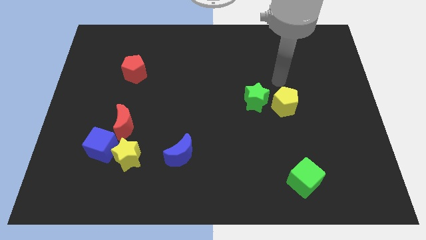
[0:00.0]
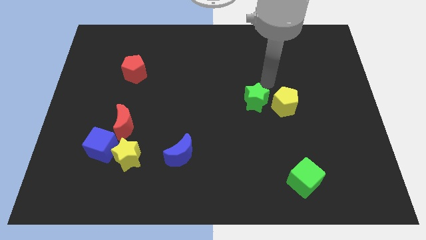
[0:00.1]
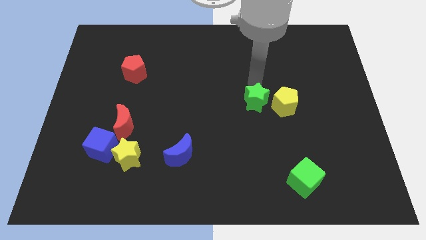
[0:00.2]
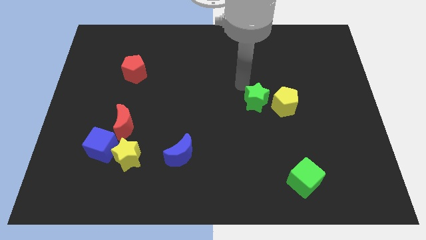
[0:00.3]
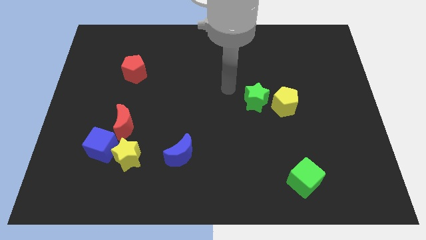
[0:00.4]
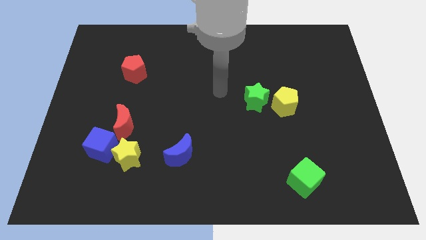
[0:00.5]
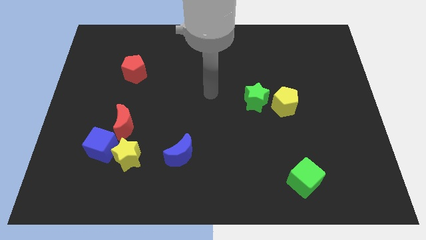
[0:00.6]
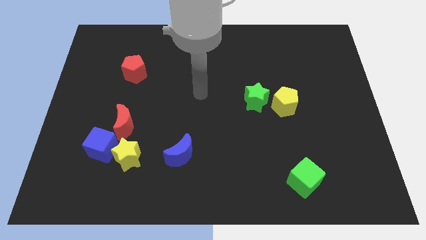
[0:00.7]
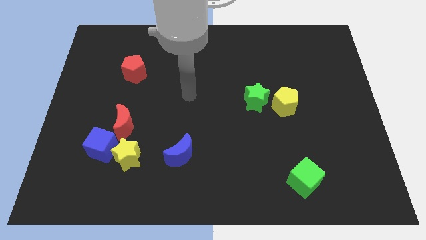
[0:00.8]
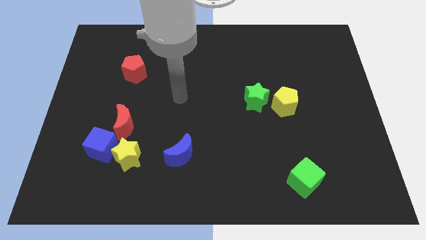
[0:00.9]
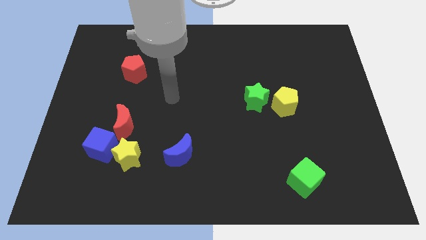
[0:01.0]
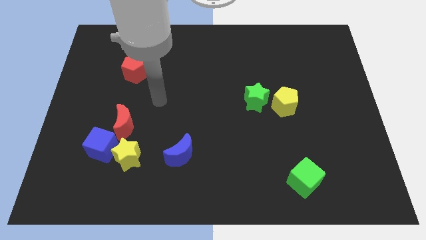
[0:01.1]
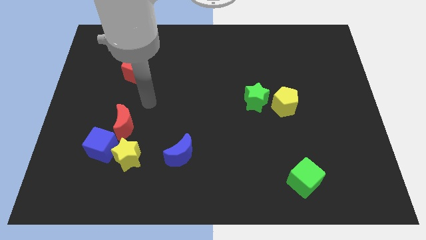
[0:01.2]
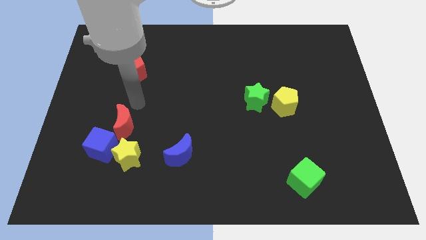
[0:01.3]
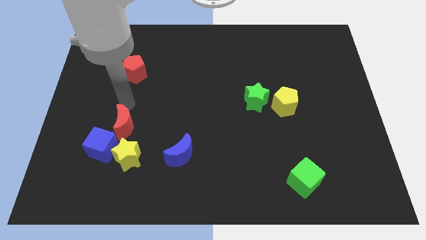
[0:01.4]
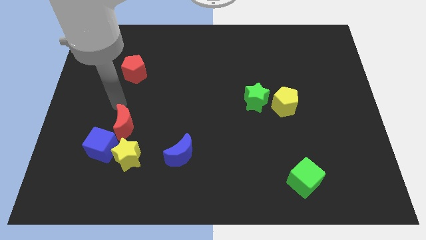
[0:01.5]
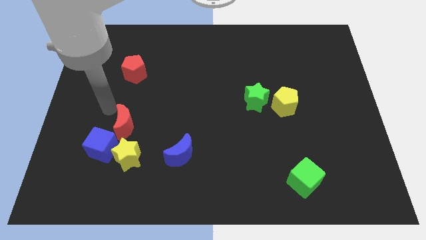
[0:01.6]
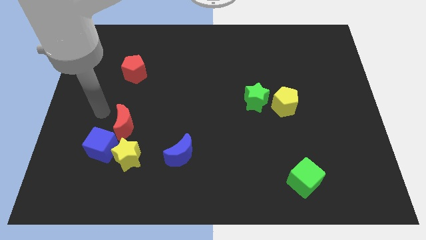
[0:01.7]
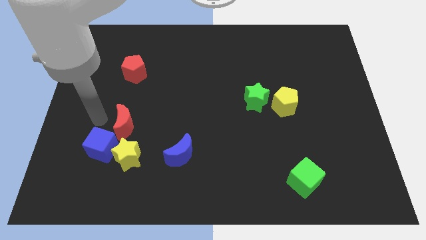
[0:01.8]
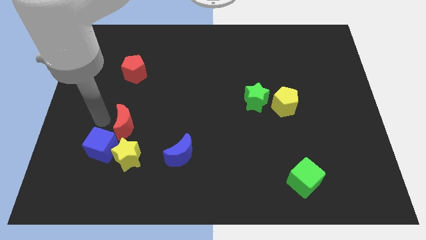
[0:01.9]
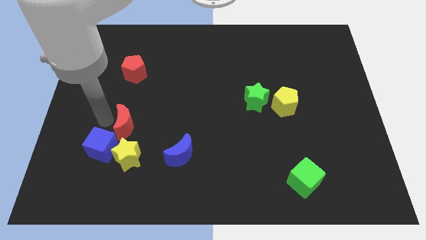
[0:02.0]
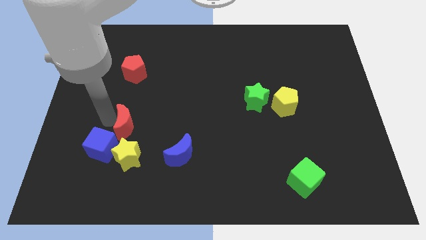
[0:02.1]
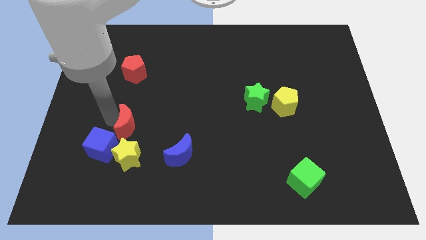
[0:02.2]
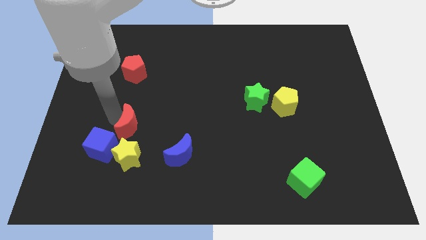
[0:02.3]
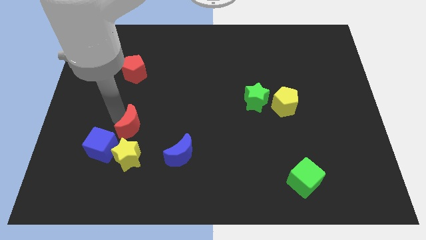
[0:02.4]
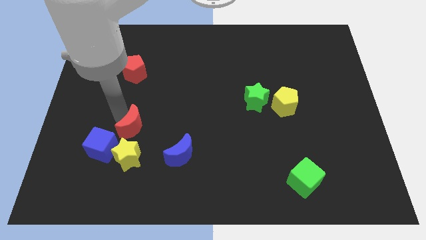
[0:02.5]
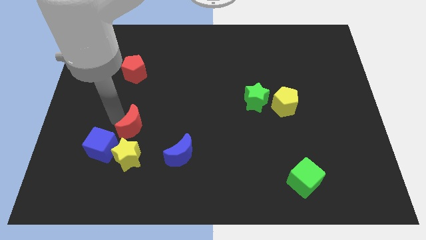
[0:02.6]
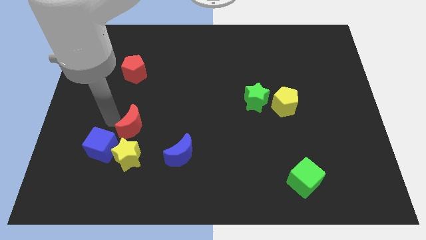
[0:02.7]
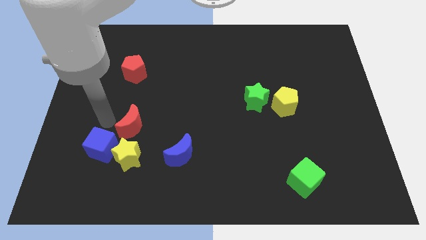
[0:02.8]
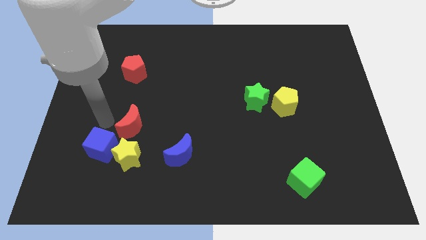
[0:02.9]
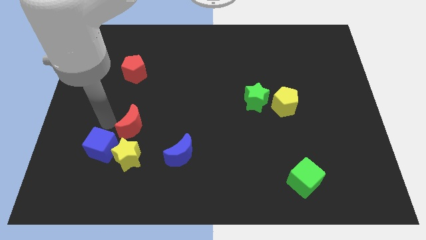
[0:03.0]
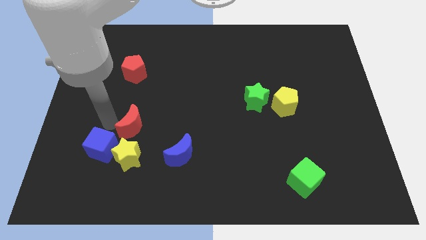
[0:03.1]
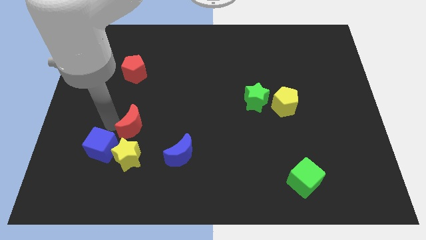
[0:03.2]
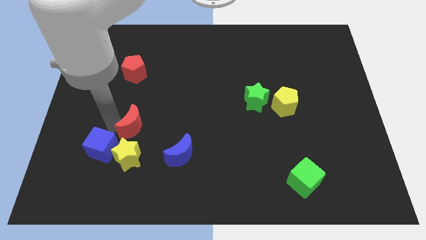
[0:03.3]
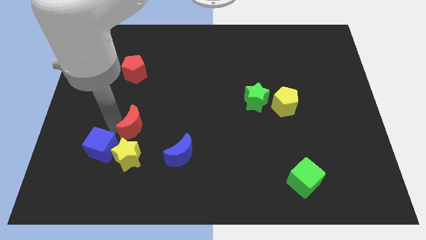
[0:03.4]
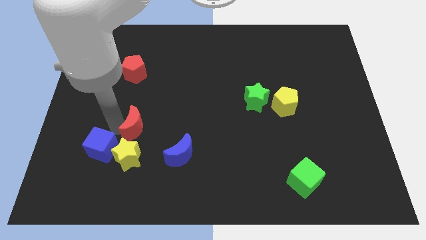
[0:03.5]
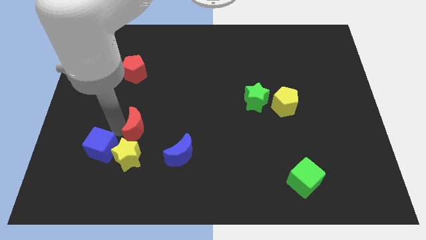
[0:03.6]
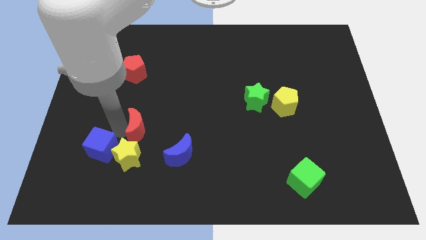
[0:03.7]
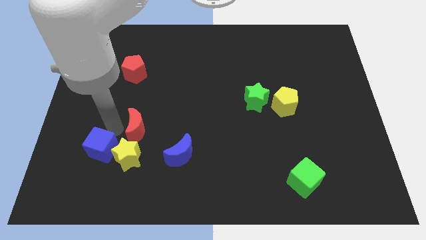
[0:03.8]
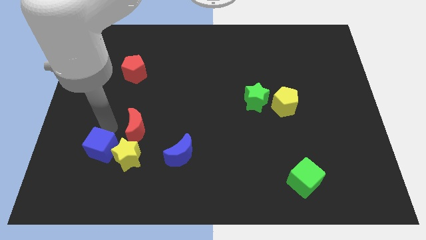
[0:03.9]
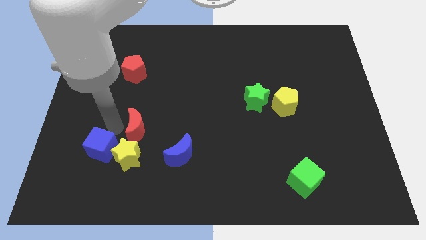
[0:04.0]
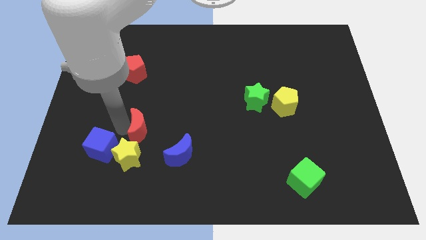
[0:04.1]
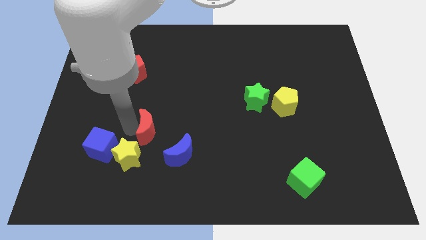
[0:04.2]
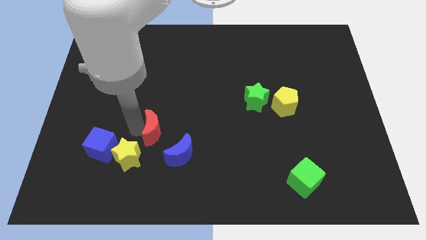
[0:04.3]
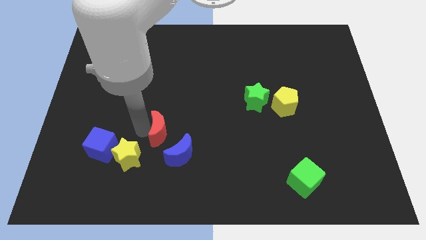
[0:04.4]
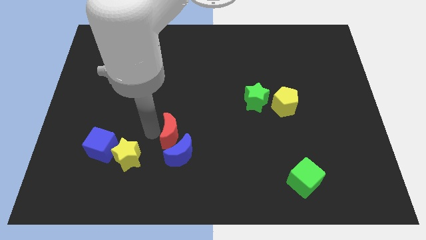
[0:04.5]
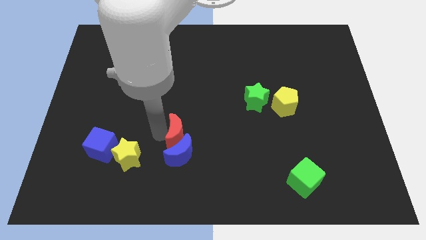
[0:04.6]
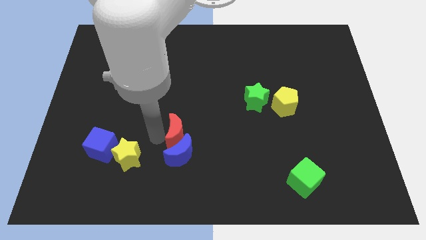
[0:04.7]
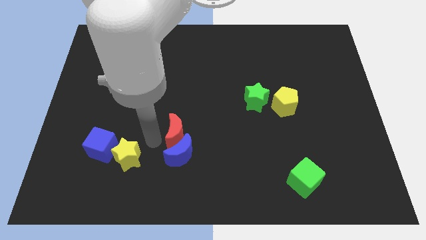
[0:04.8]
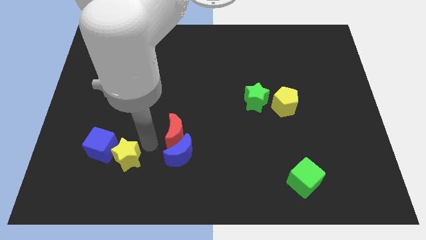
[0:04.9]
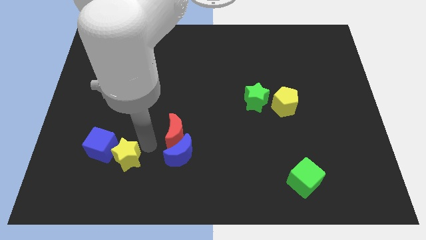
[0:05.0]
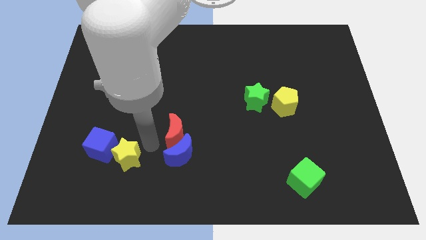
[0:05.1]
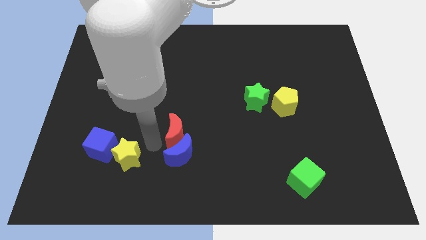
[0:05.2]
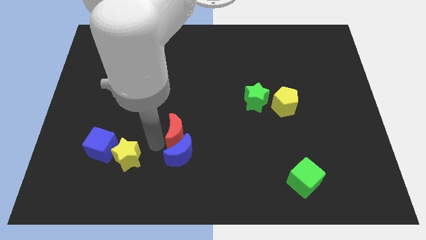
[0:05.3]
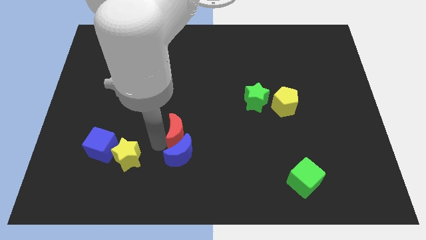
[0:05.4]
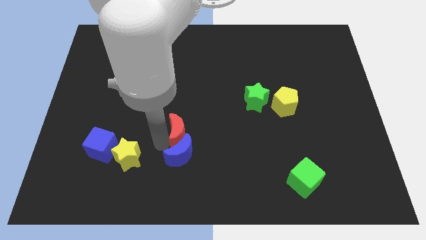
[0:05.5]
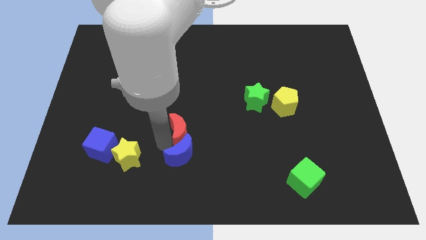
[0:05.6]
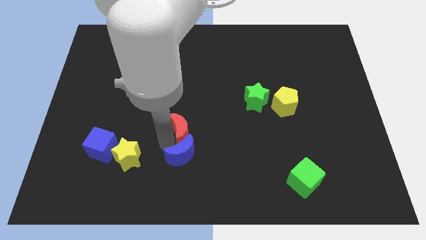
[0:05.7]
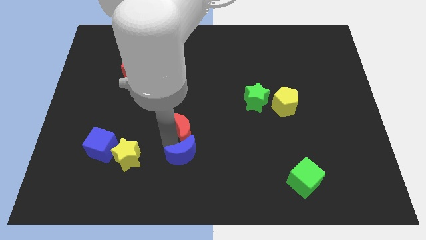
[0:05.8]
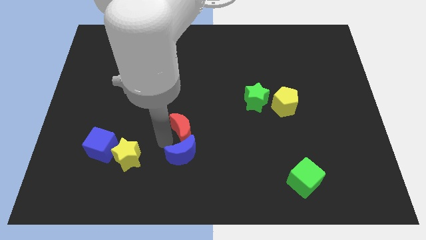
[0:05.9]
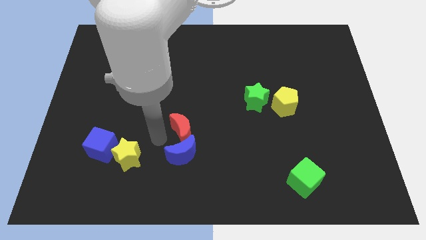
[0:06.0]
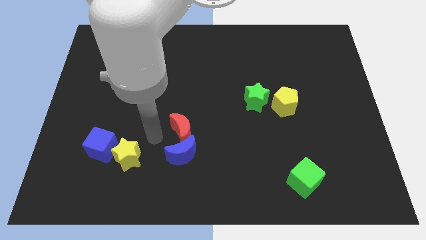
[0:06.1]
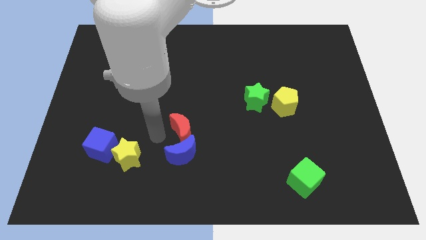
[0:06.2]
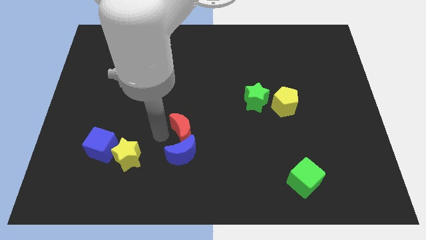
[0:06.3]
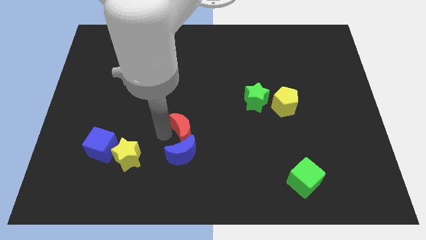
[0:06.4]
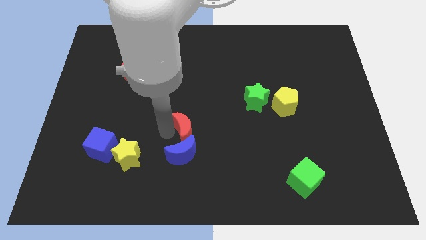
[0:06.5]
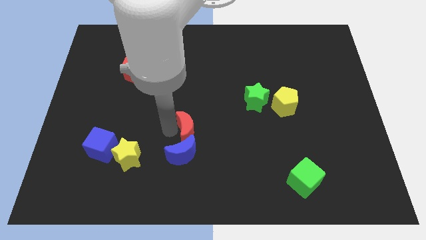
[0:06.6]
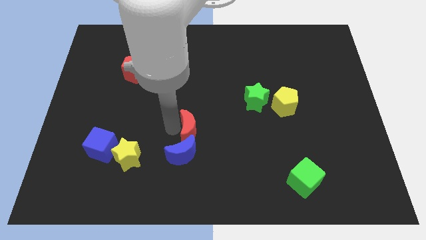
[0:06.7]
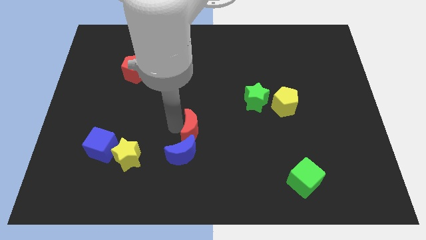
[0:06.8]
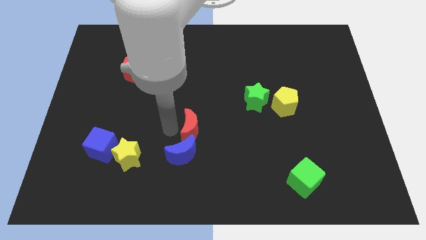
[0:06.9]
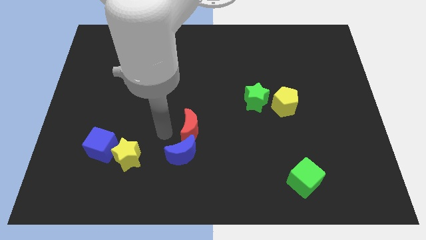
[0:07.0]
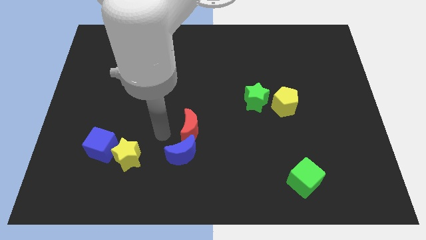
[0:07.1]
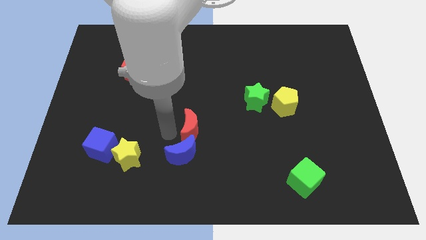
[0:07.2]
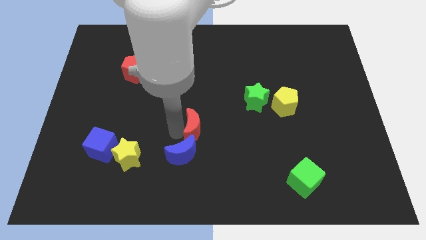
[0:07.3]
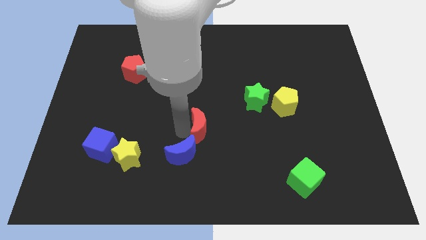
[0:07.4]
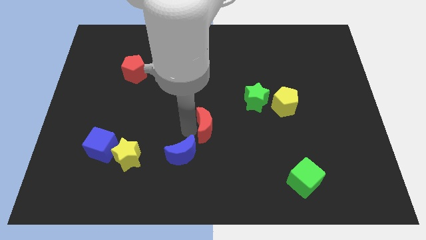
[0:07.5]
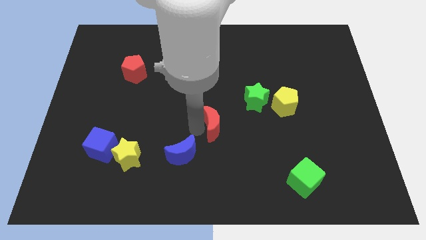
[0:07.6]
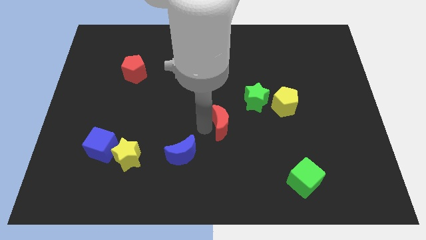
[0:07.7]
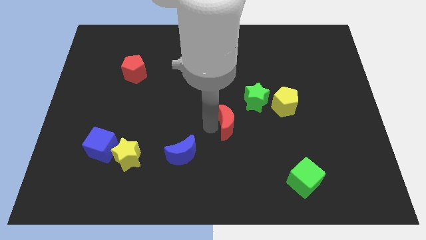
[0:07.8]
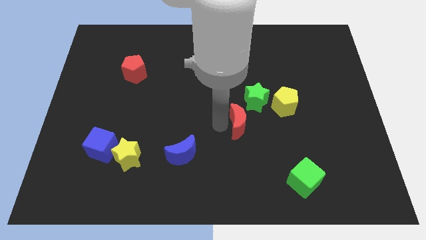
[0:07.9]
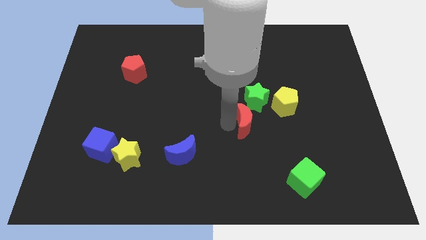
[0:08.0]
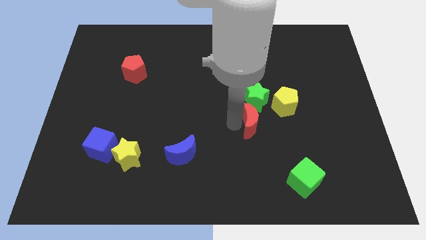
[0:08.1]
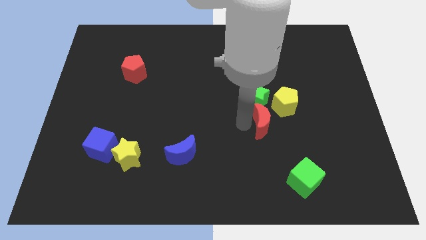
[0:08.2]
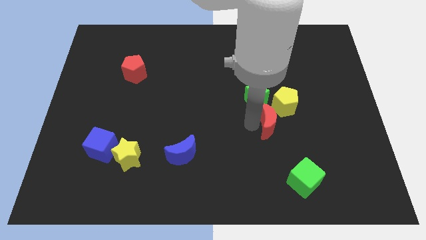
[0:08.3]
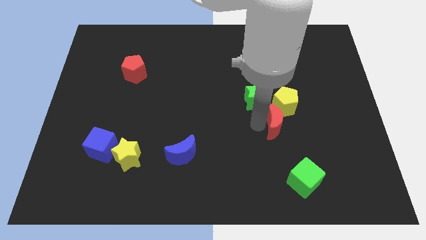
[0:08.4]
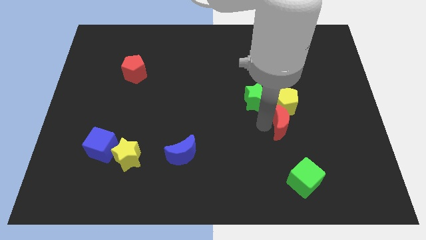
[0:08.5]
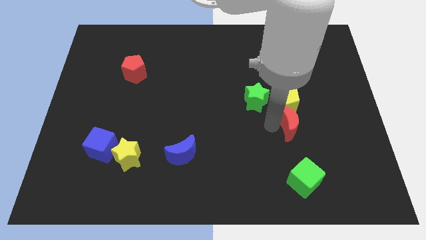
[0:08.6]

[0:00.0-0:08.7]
put the red moon to the bottom right of the yellow pentagon
